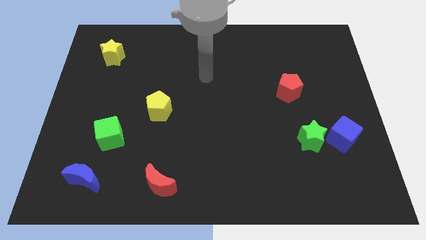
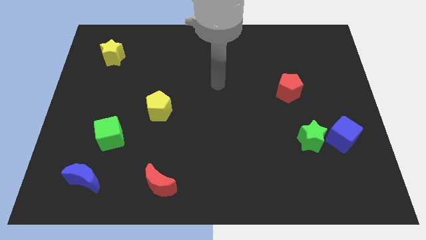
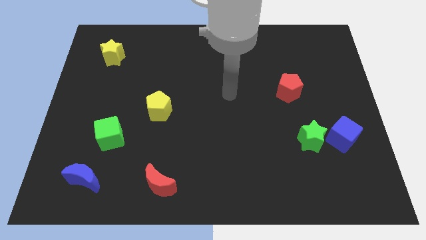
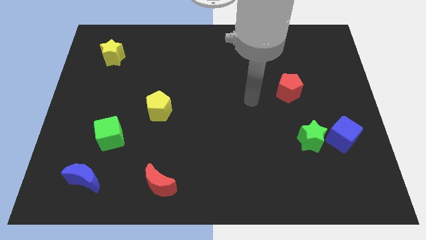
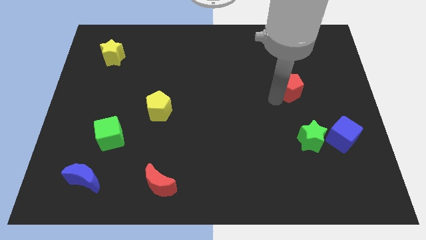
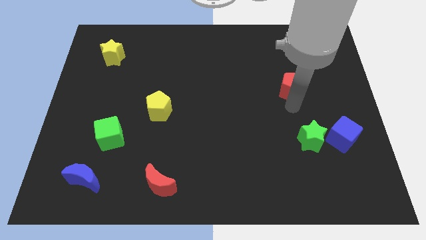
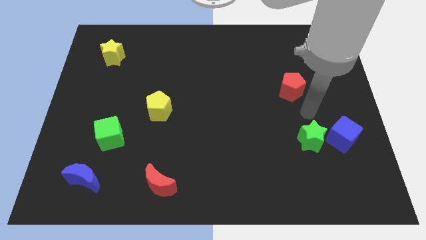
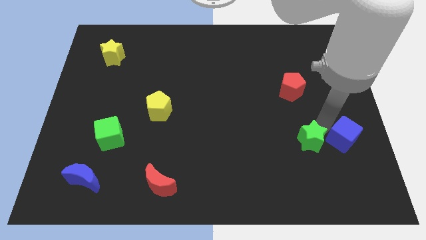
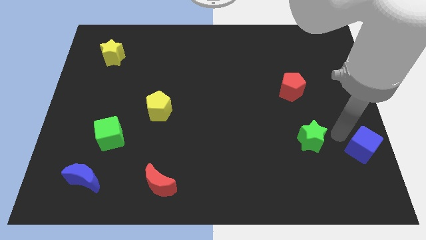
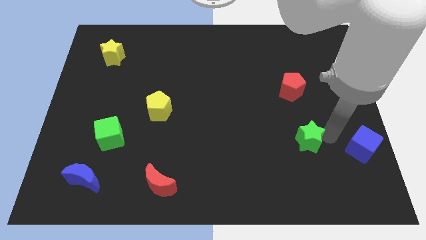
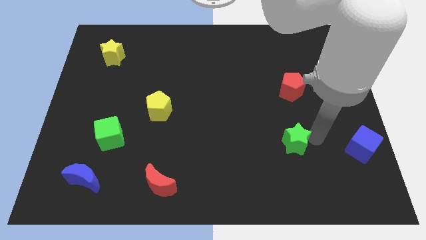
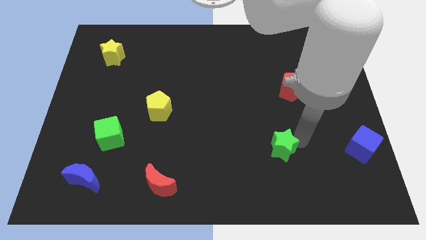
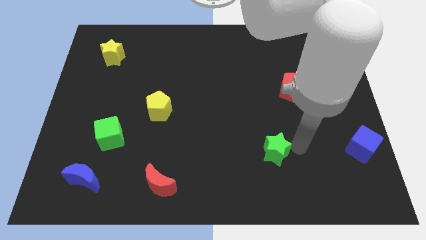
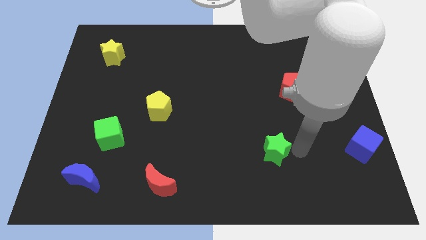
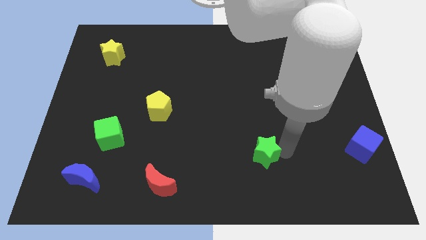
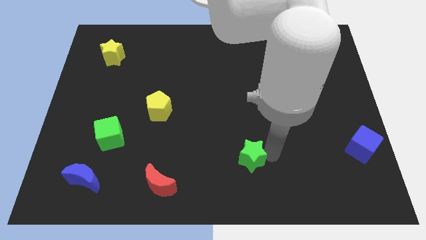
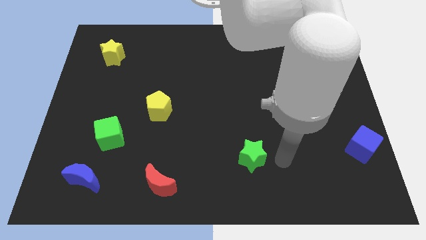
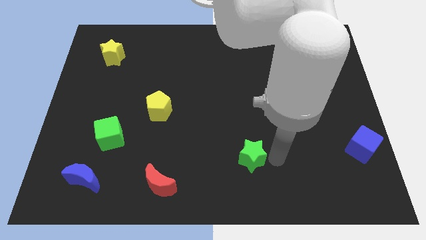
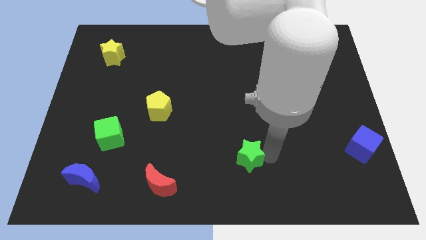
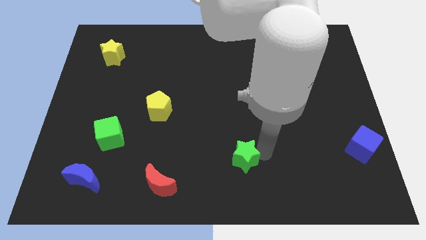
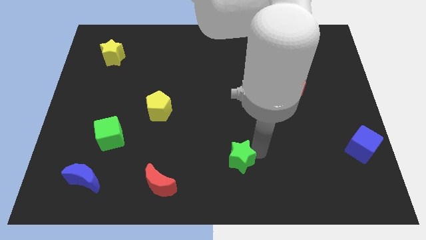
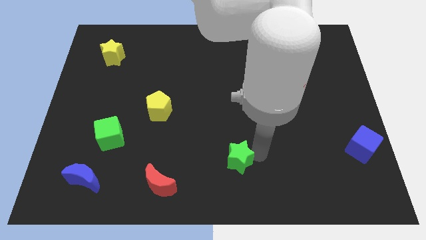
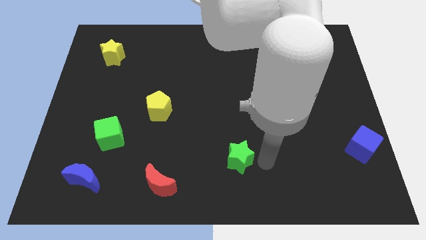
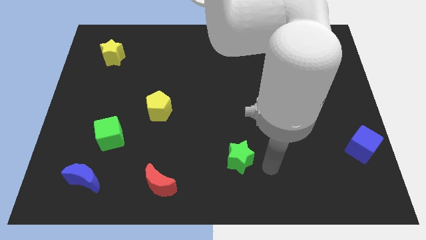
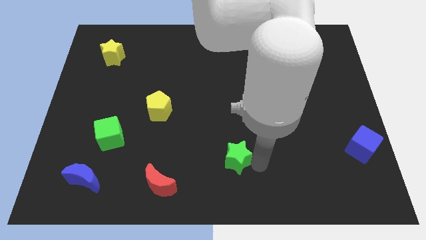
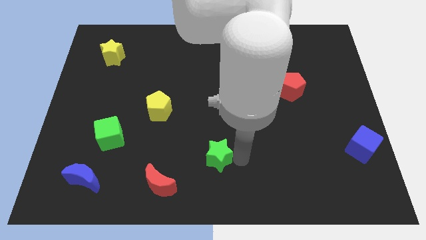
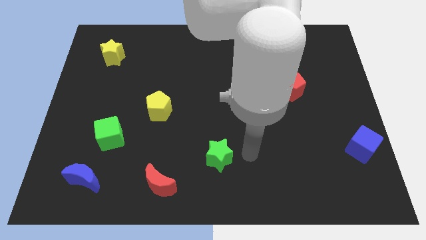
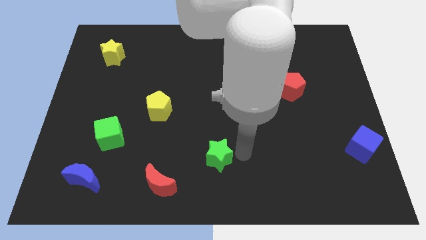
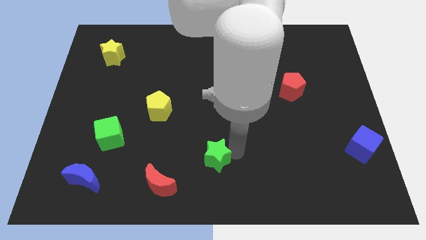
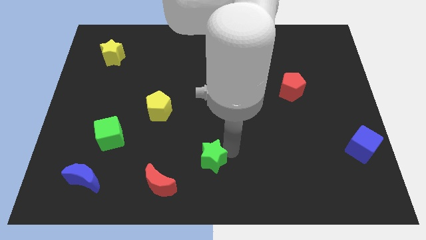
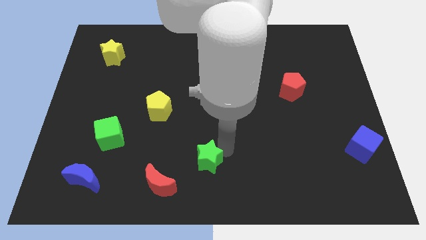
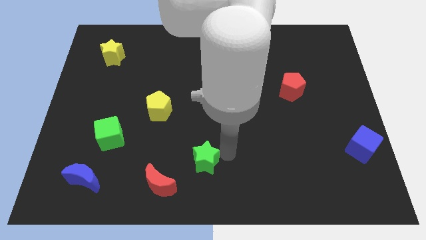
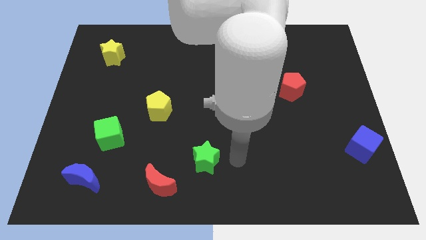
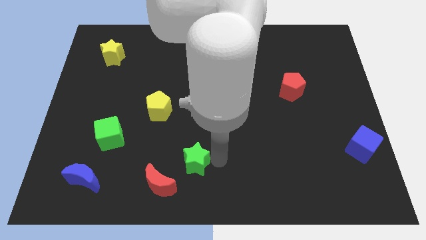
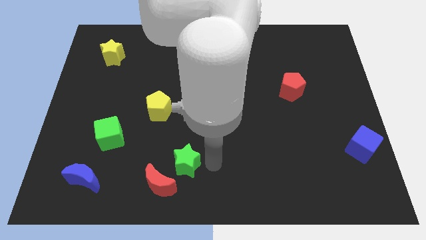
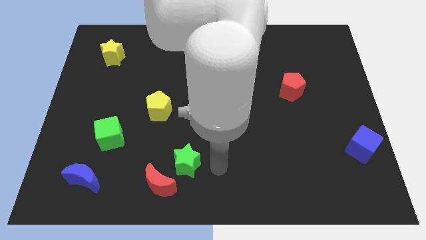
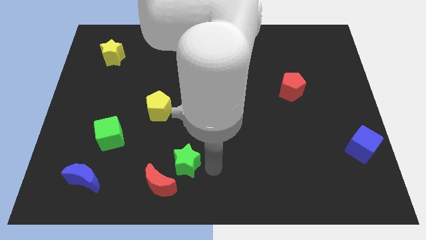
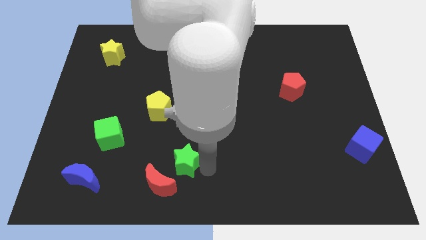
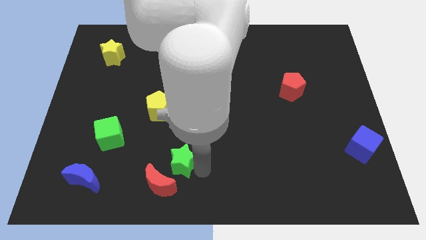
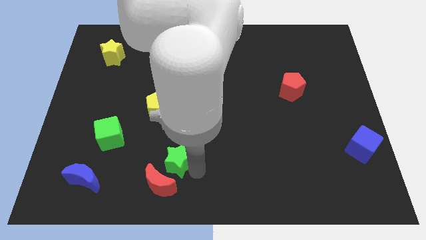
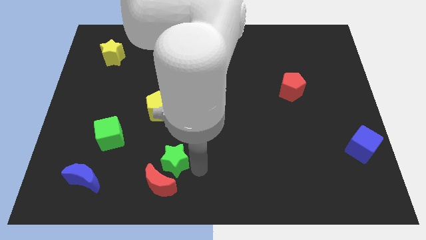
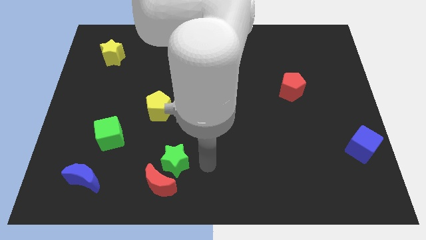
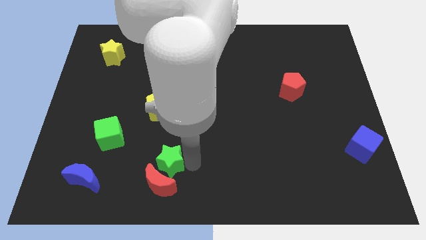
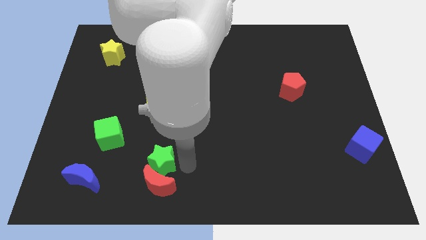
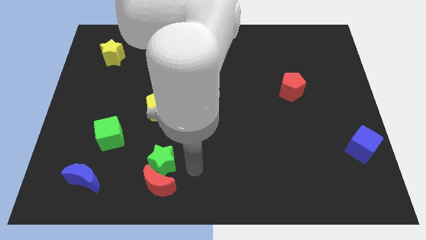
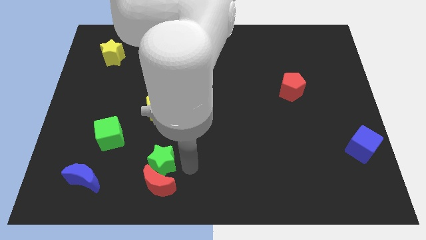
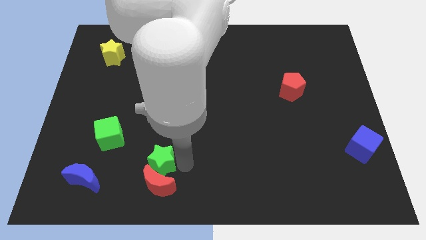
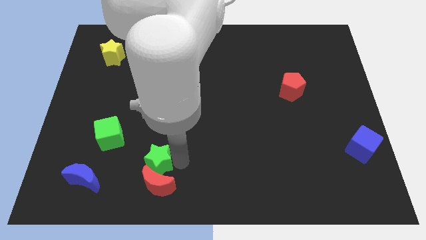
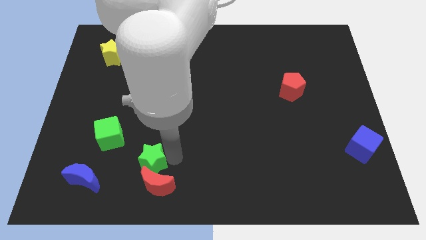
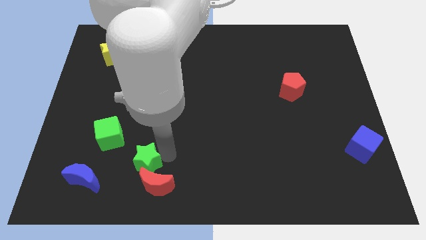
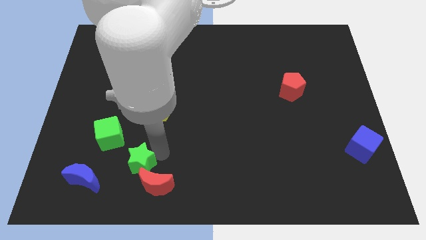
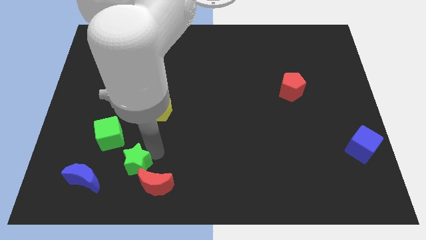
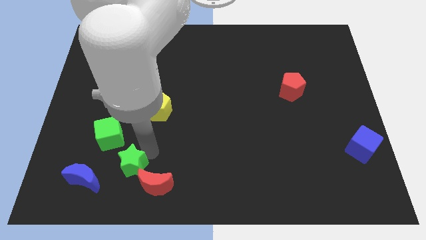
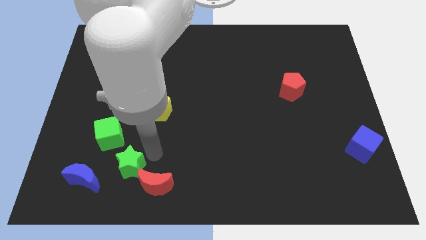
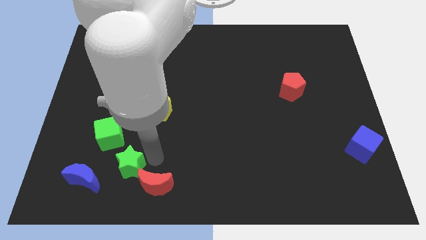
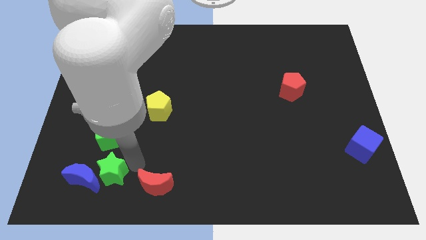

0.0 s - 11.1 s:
move the green star to the blue moon

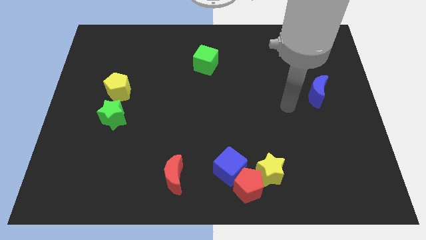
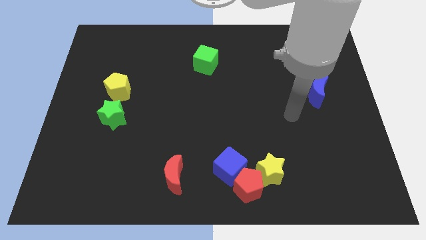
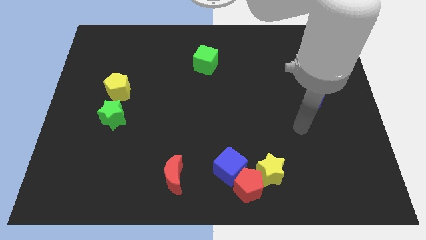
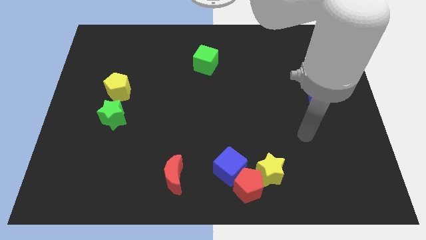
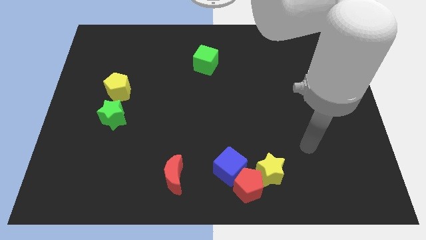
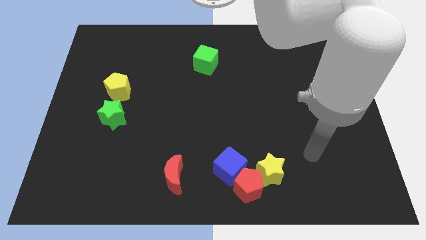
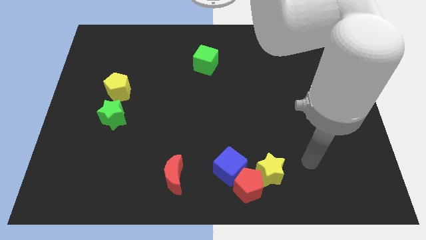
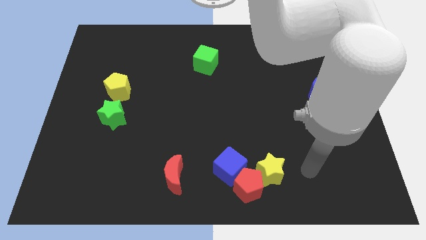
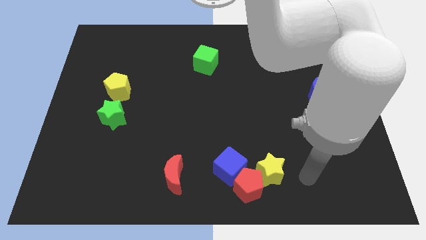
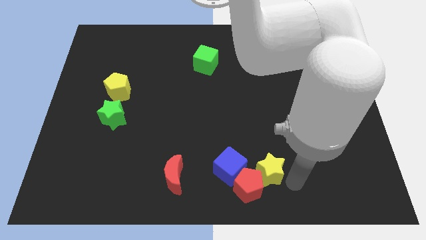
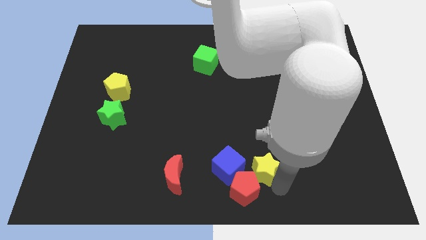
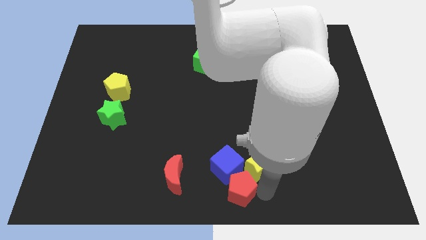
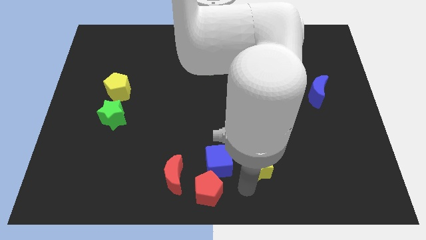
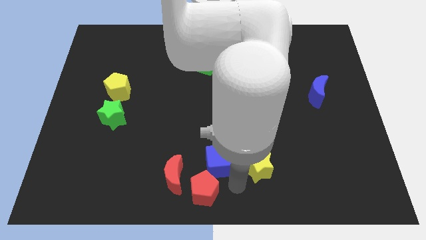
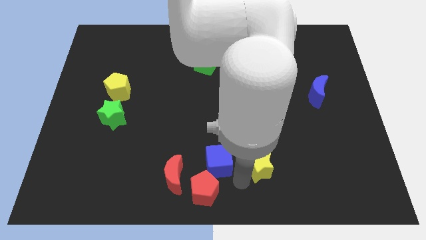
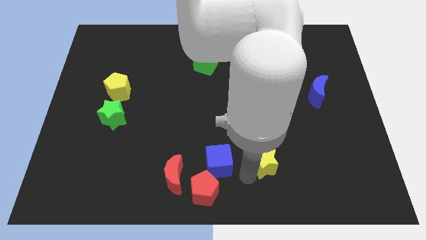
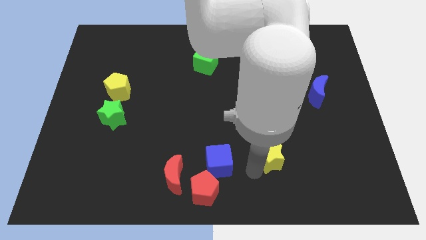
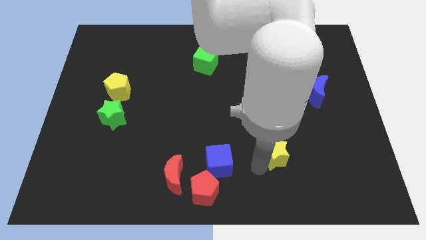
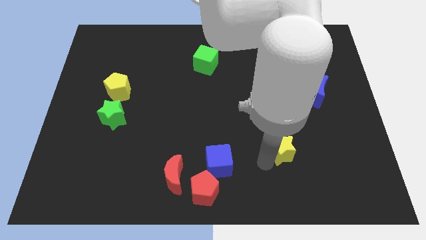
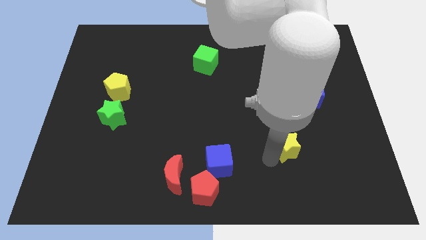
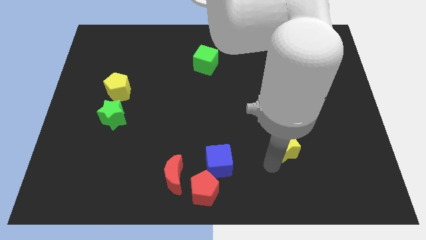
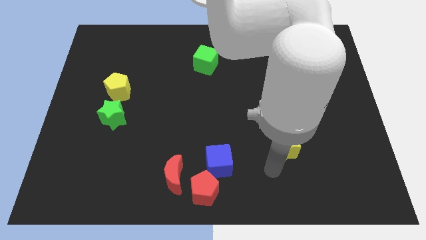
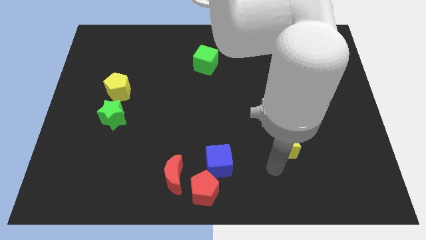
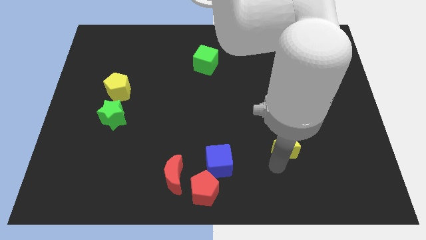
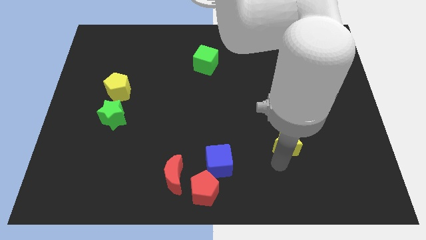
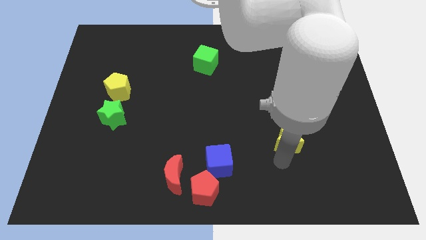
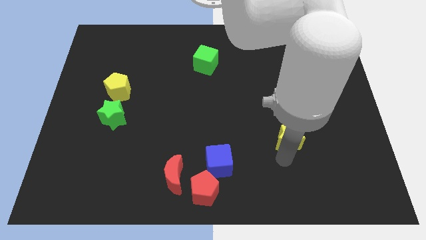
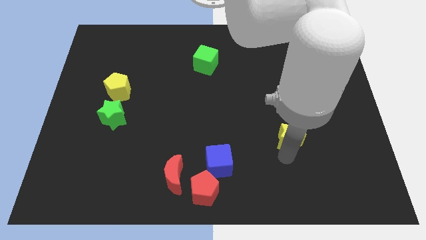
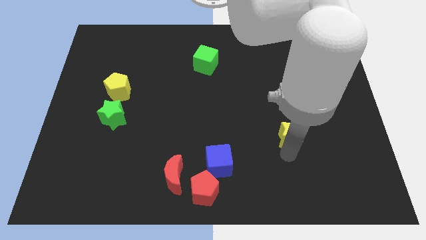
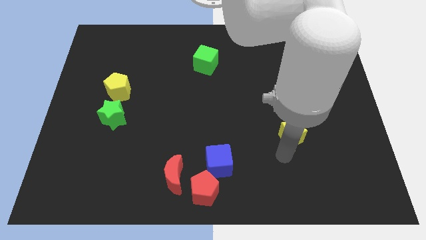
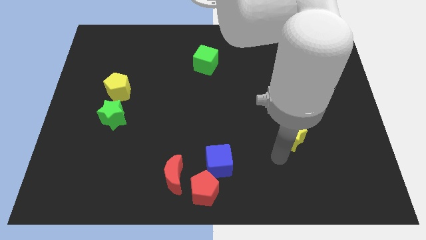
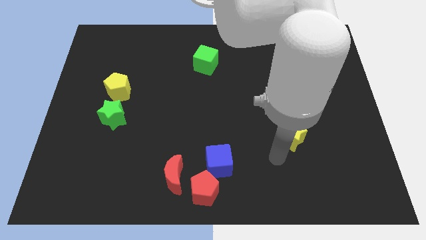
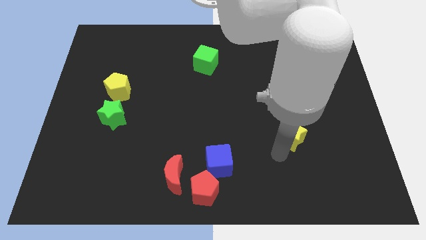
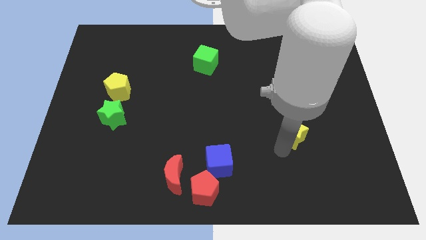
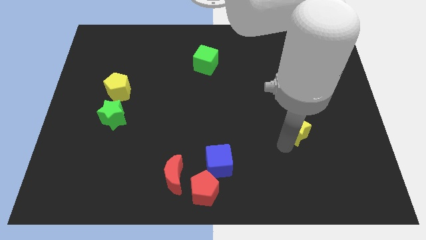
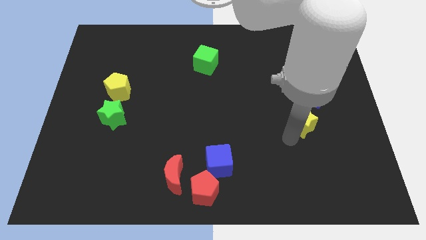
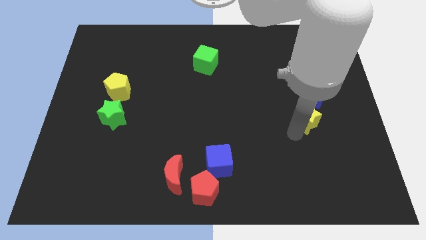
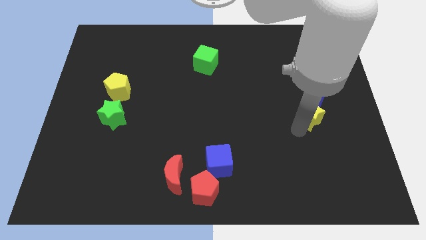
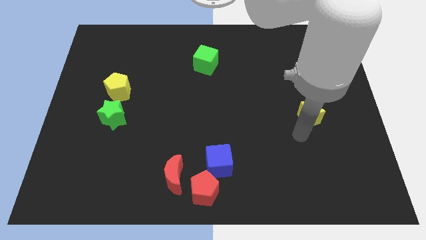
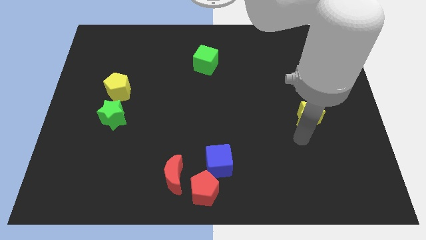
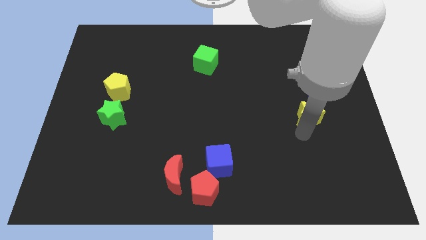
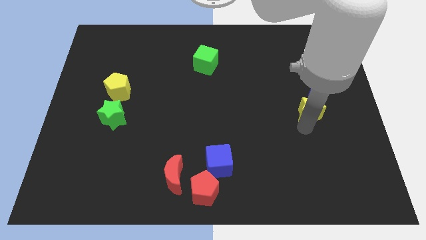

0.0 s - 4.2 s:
slide the yellow star close to the blue moon
